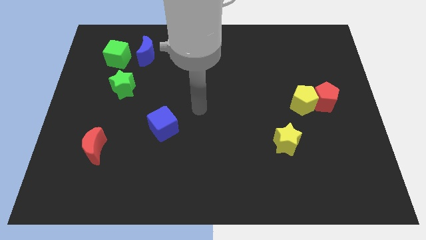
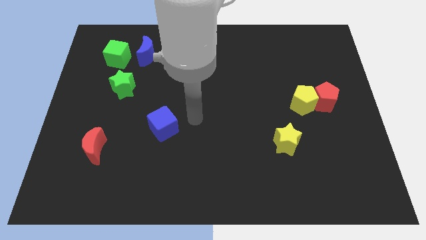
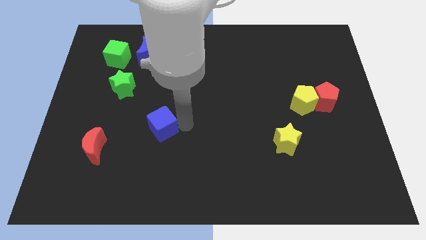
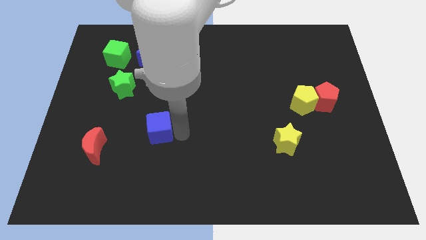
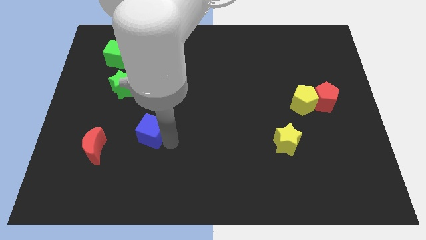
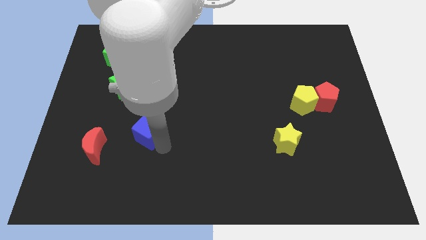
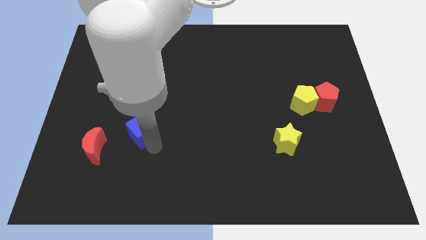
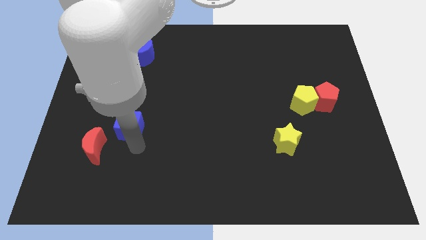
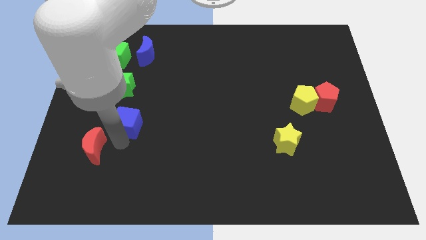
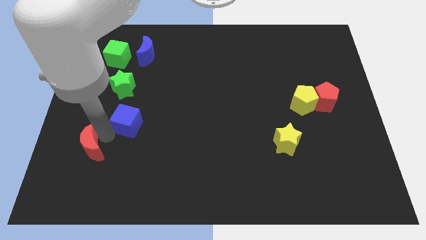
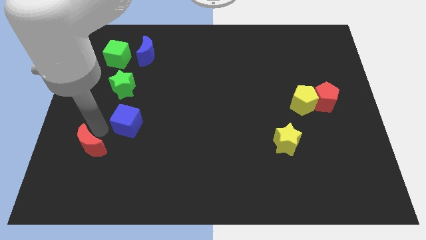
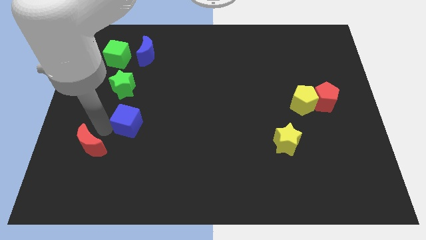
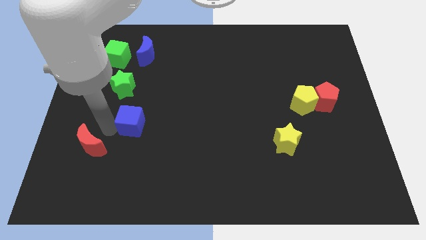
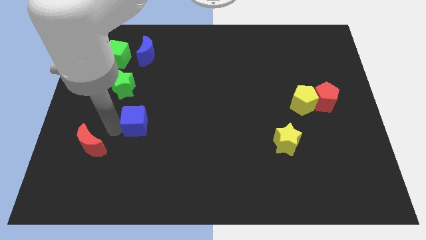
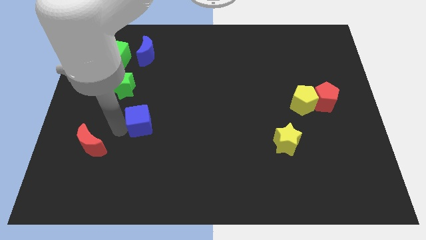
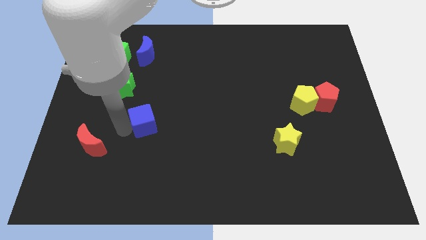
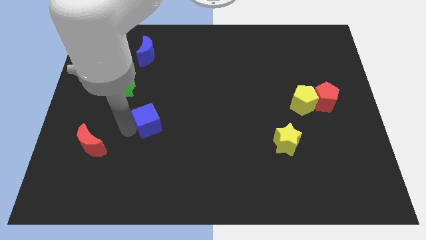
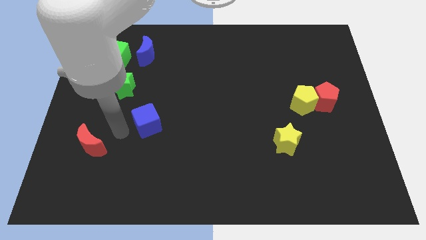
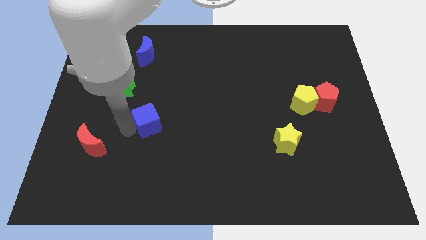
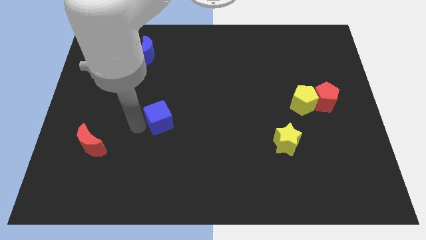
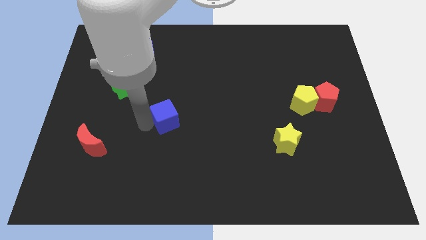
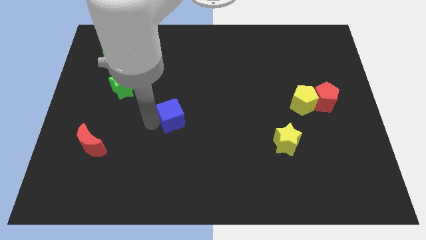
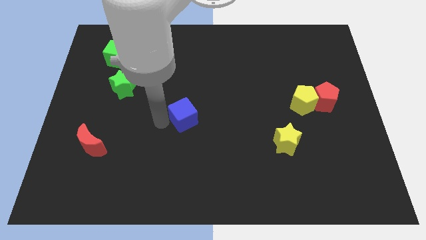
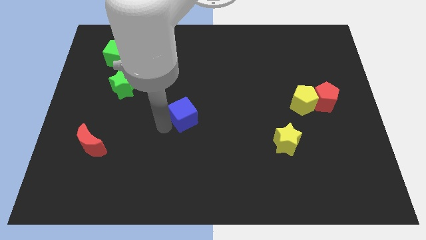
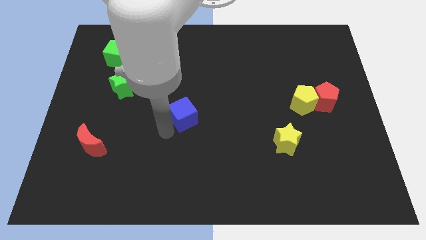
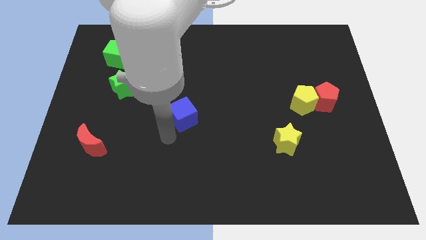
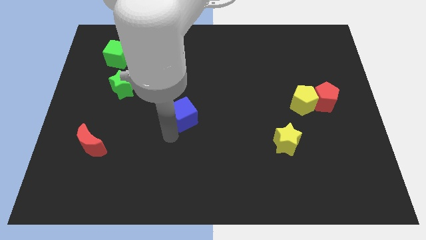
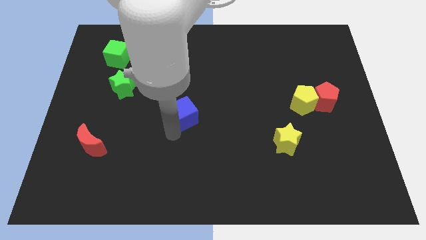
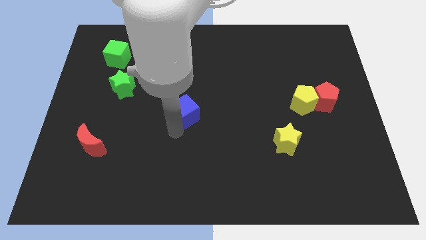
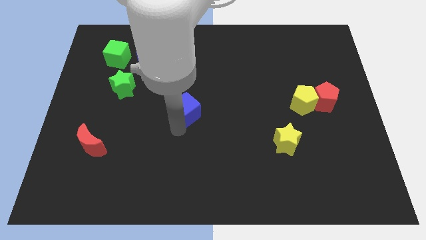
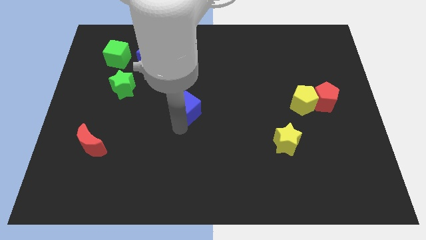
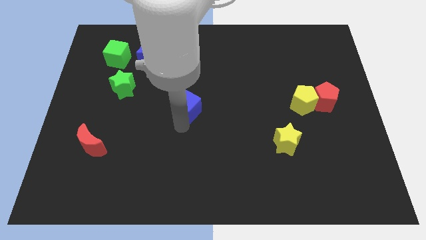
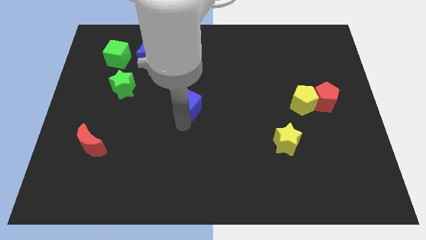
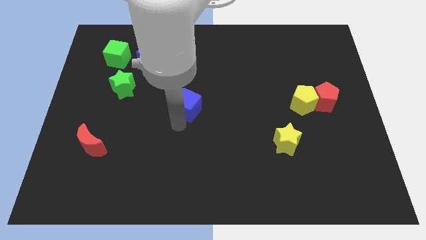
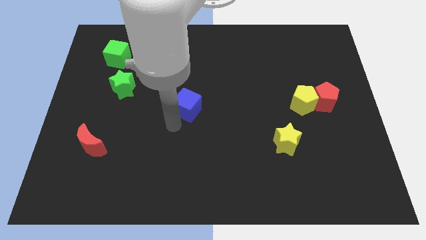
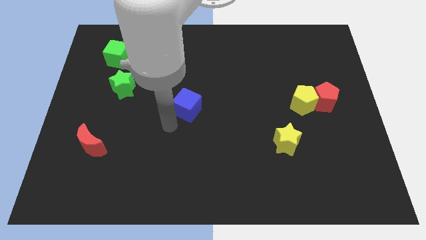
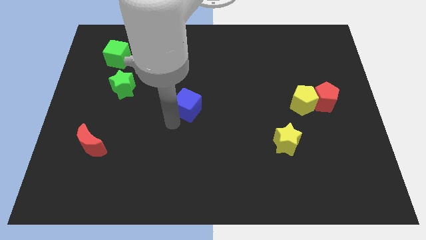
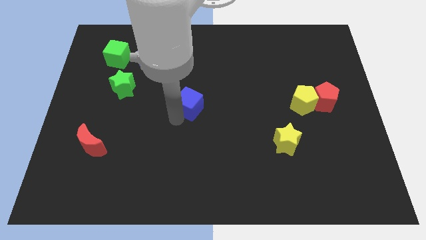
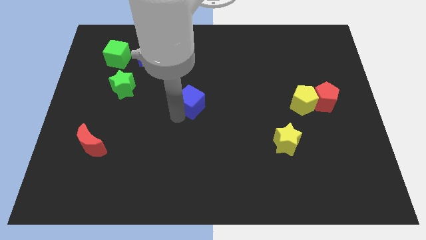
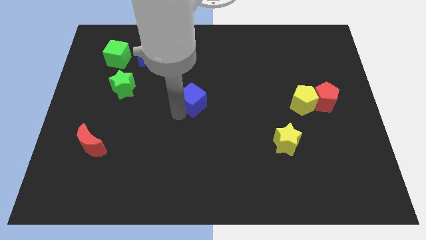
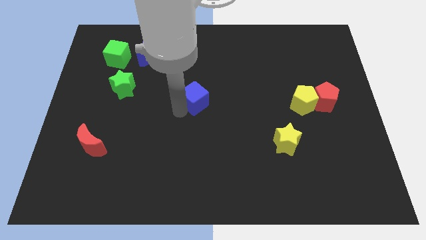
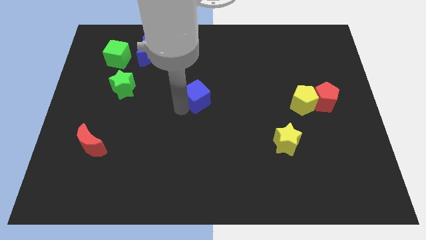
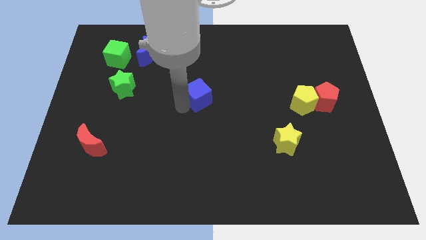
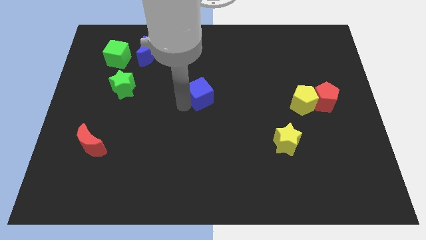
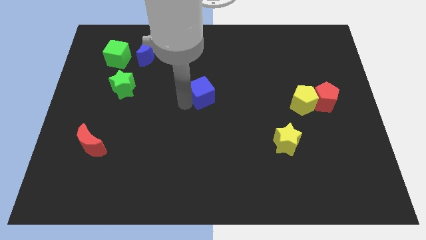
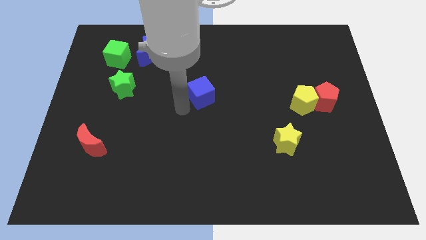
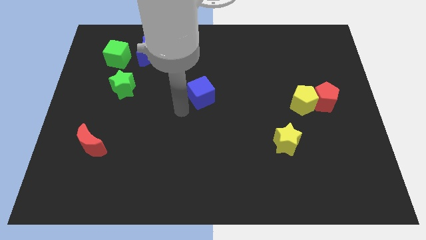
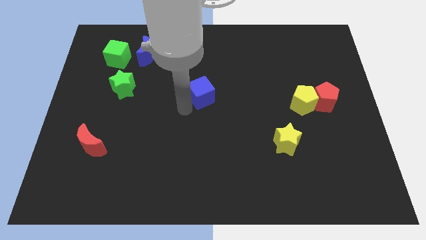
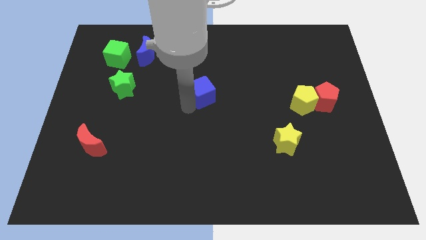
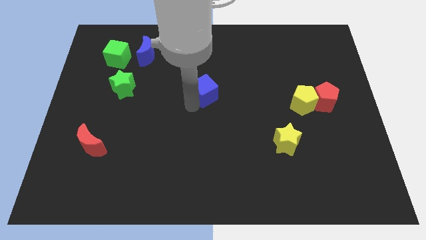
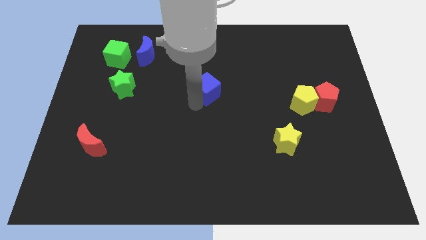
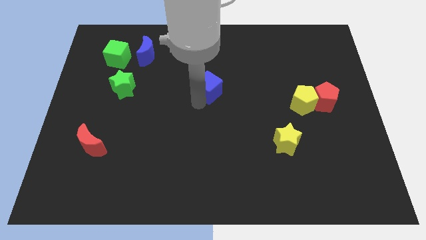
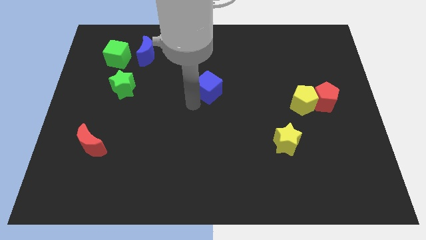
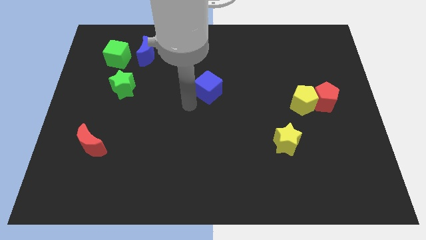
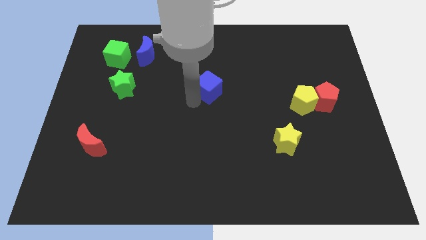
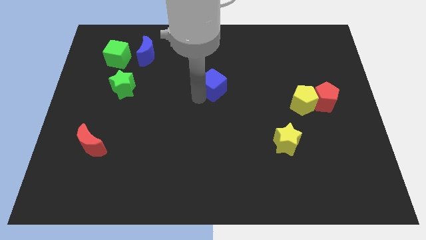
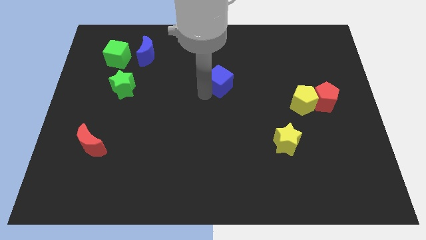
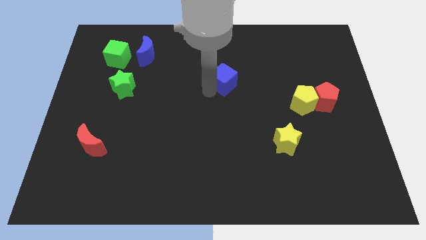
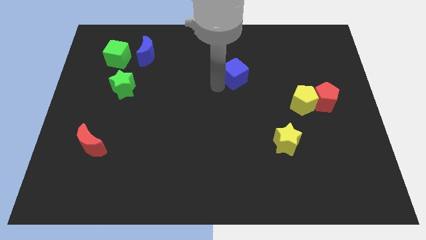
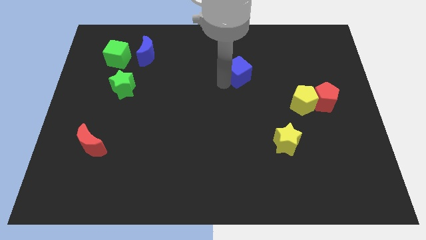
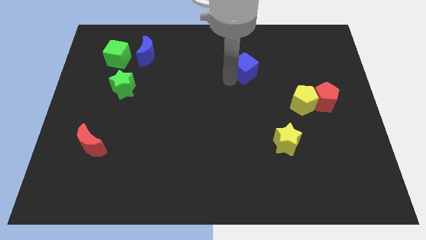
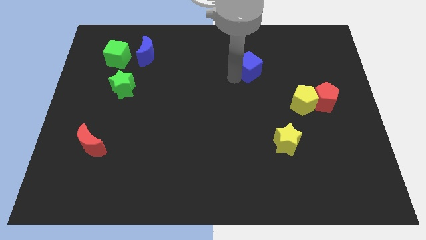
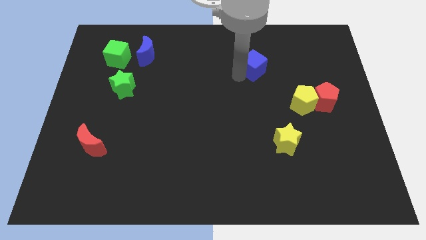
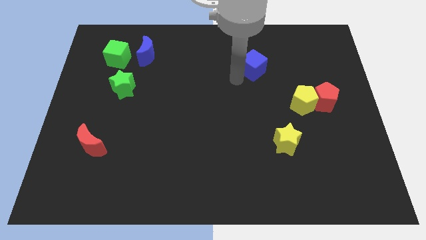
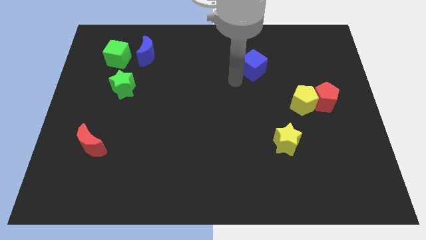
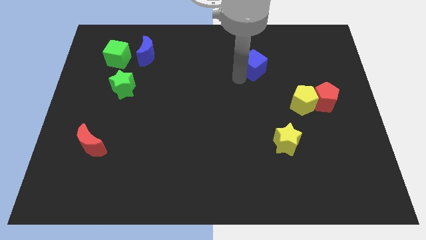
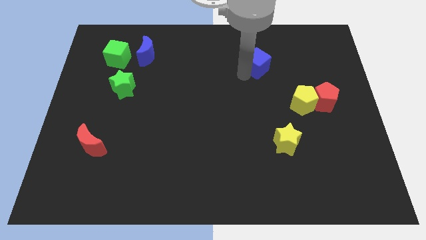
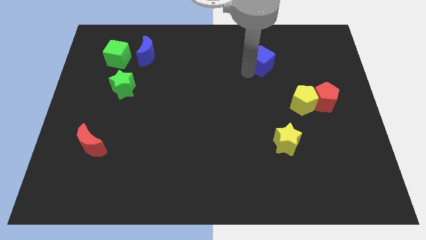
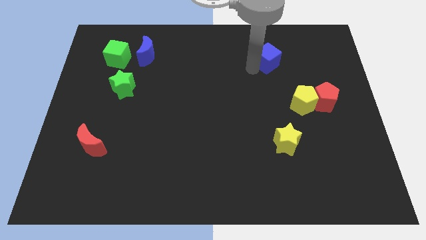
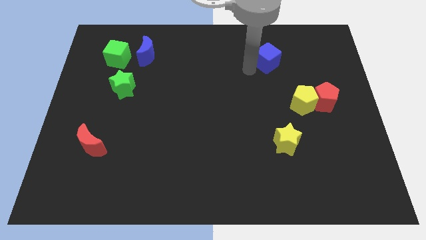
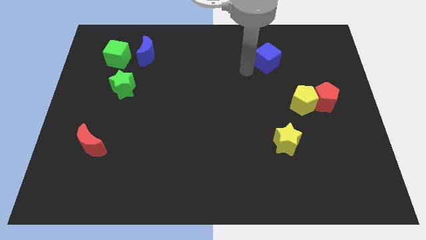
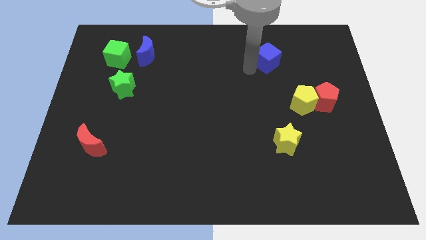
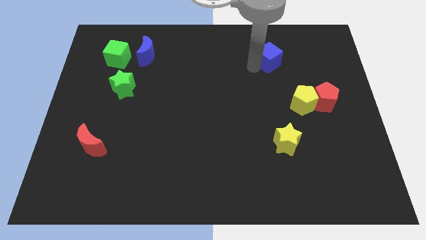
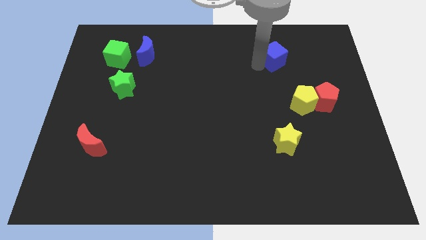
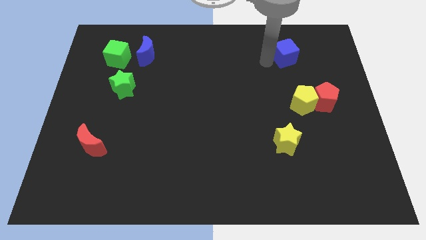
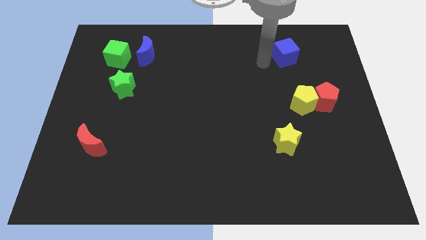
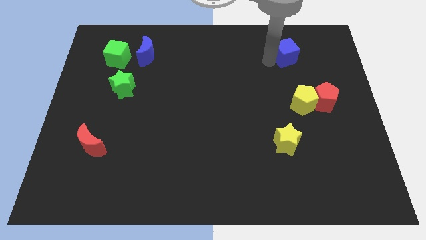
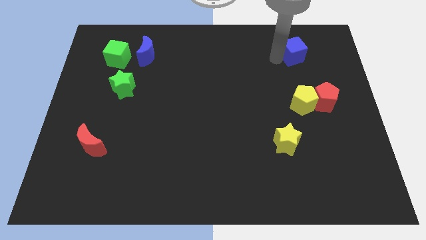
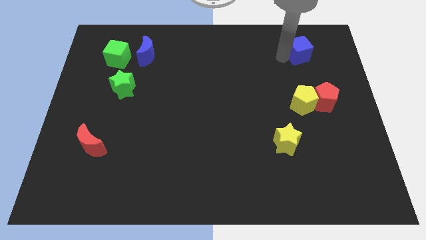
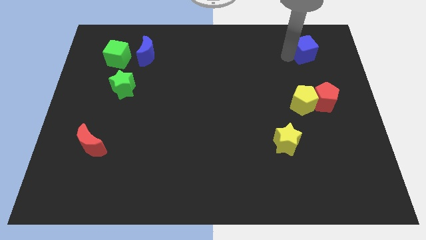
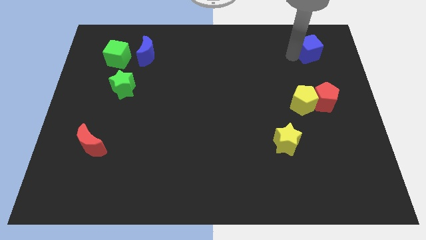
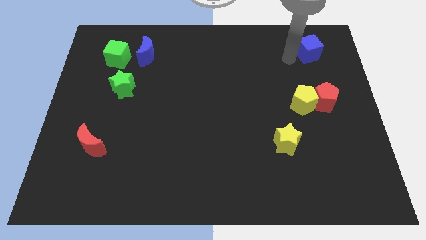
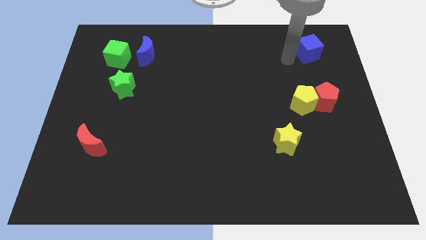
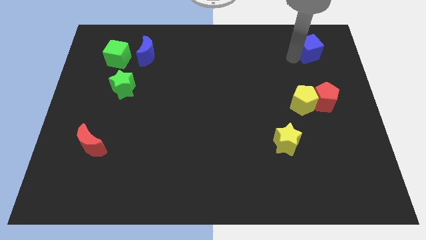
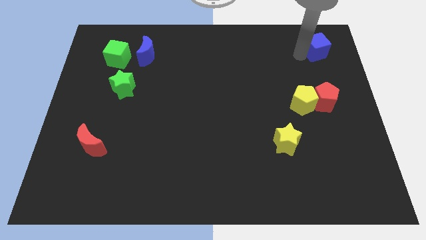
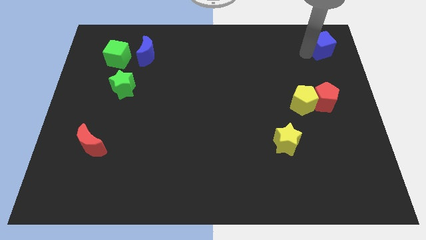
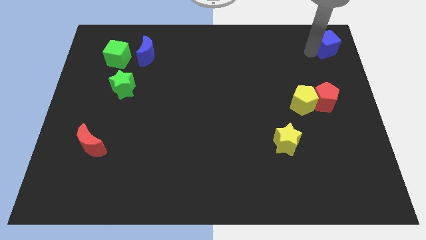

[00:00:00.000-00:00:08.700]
put the blue cube to the top right of the board
